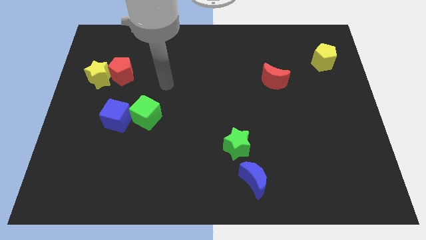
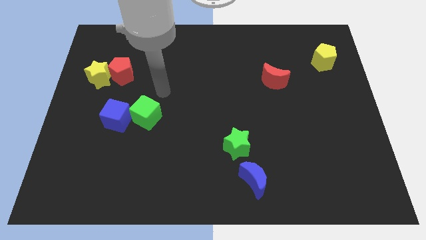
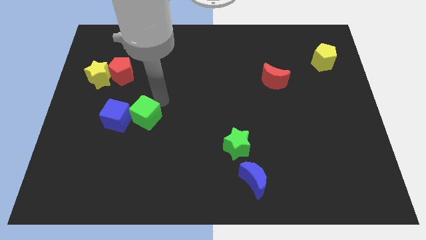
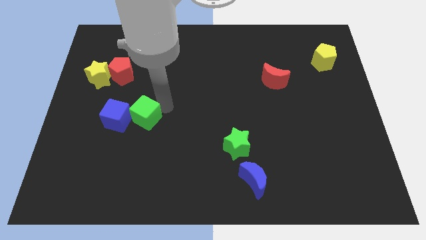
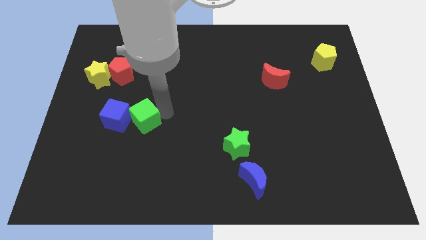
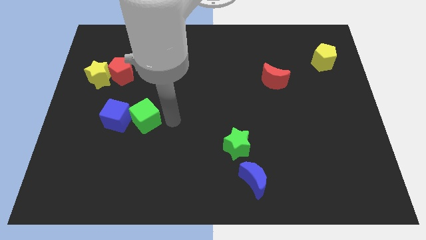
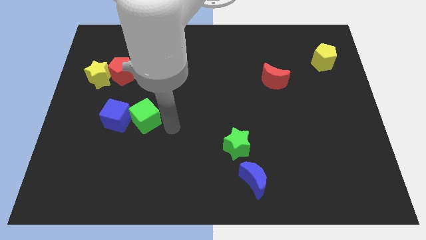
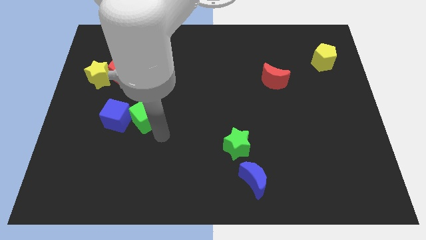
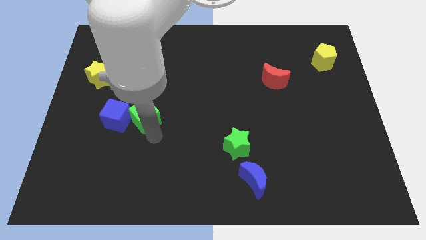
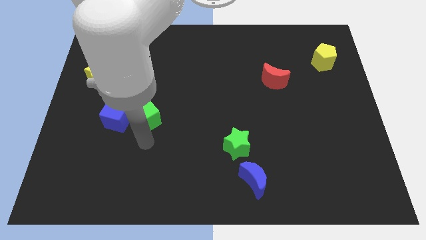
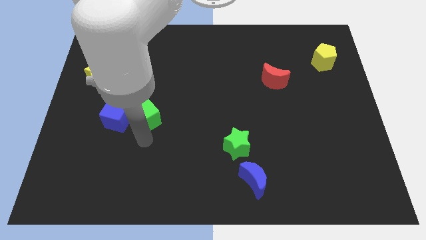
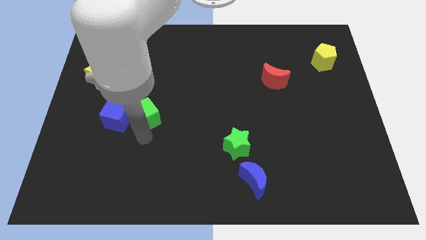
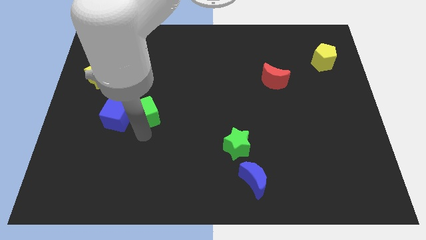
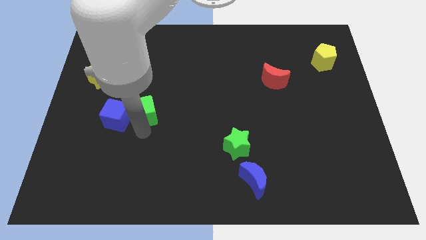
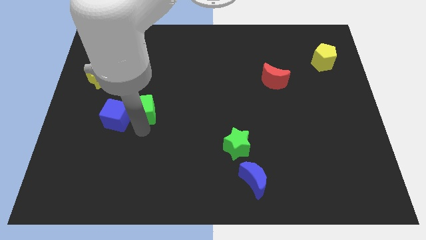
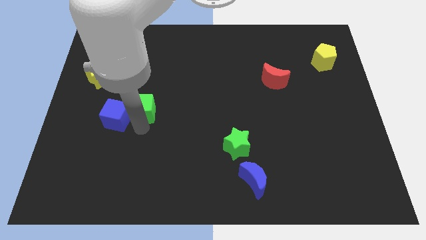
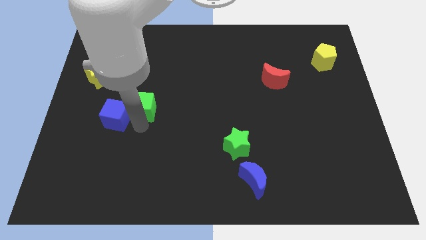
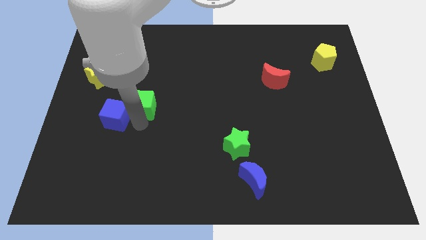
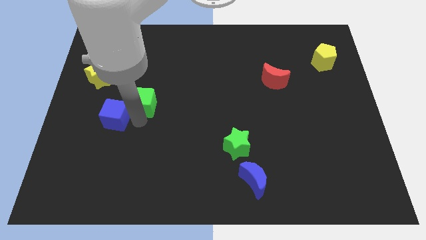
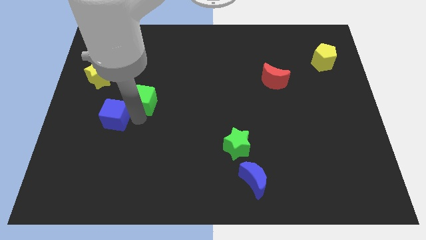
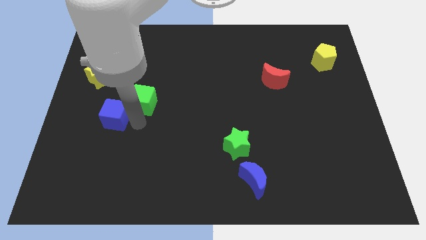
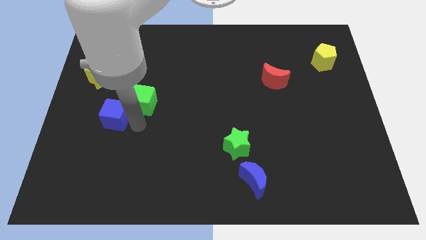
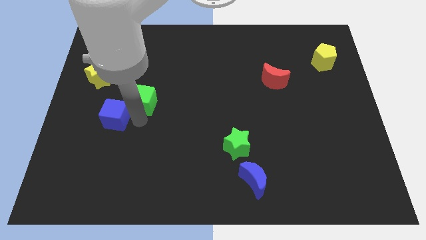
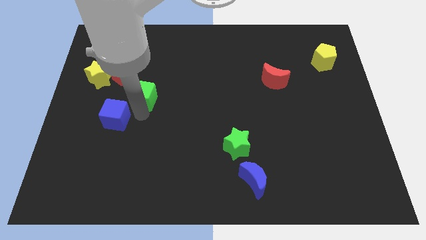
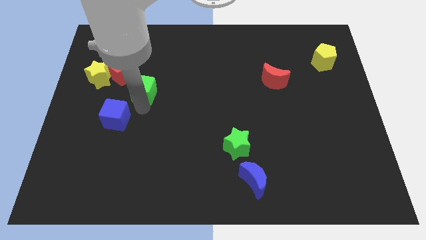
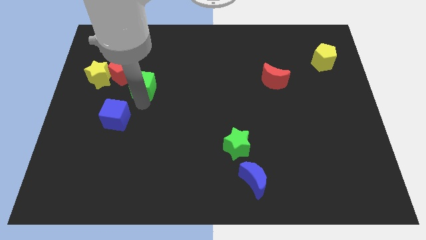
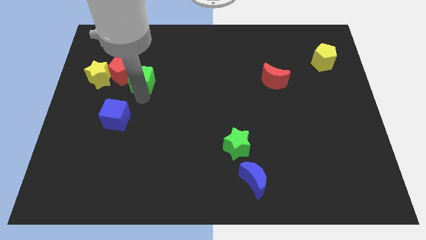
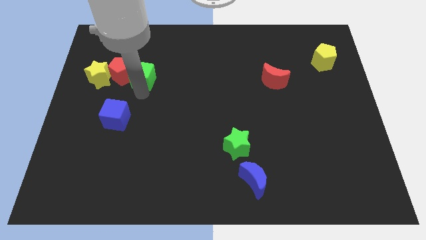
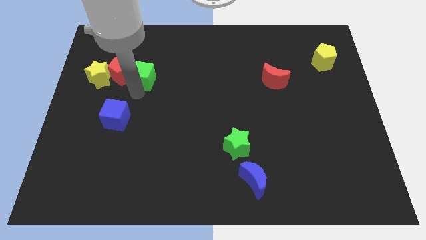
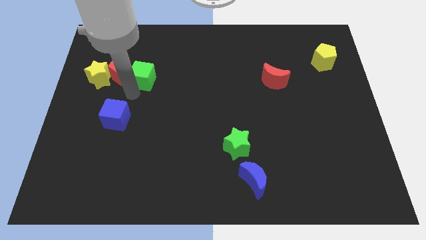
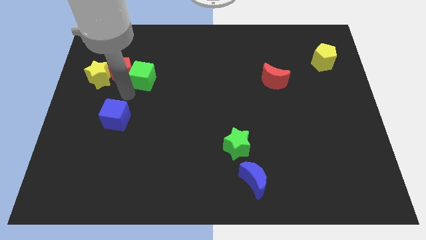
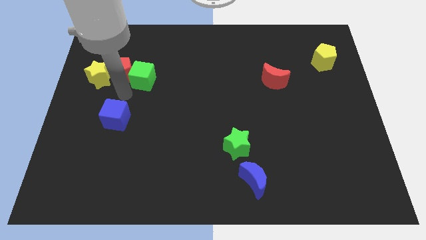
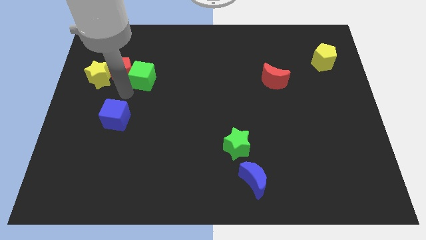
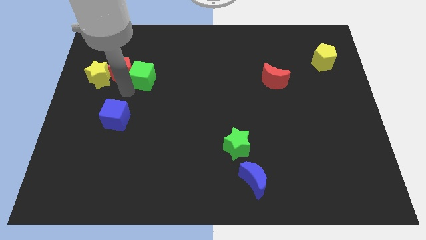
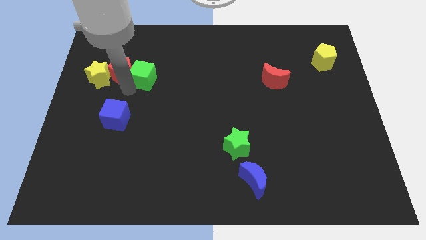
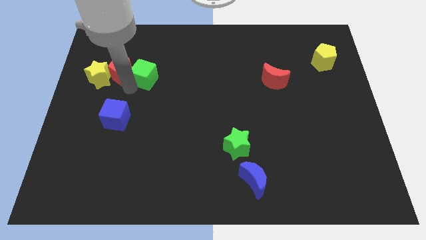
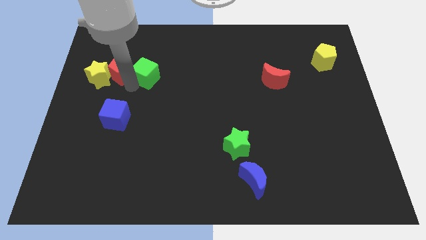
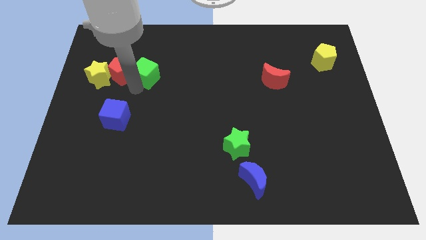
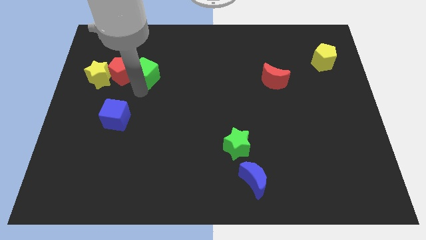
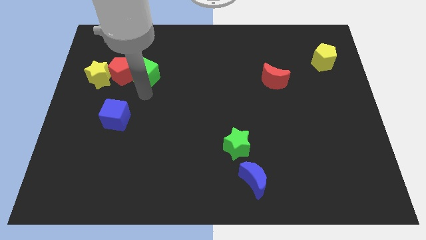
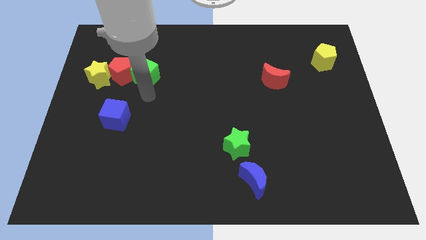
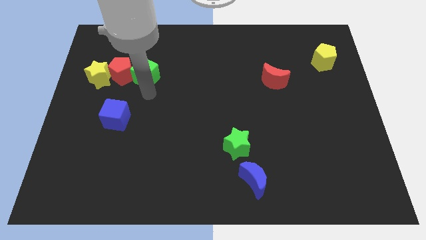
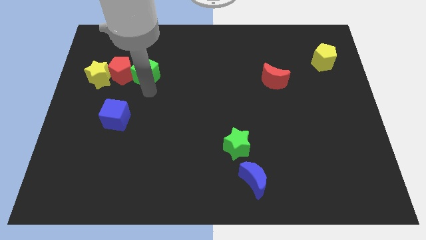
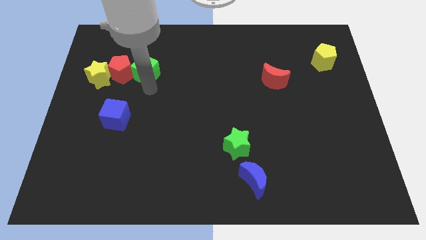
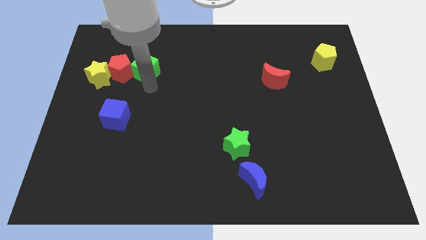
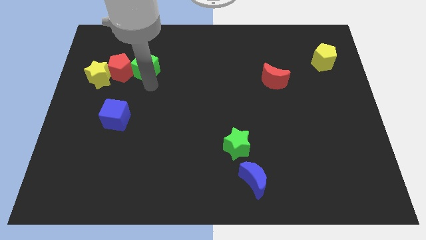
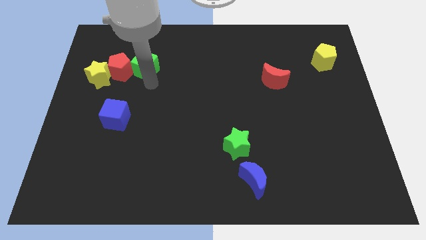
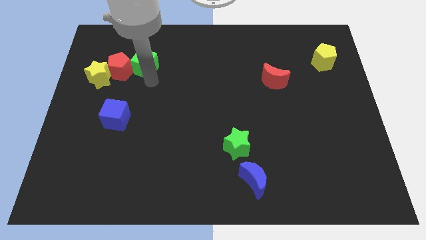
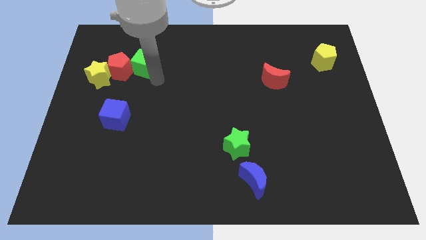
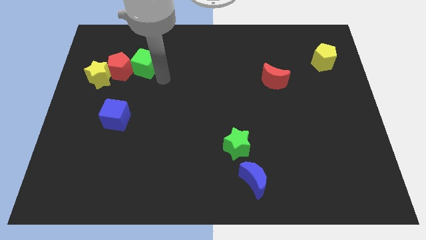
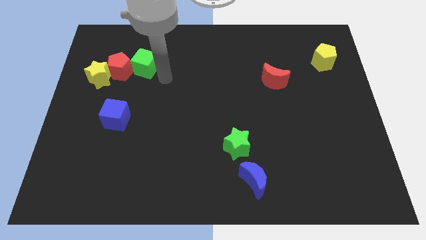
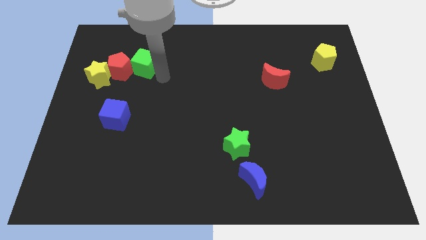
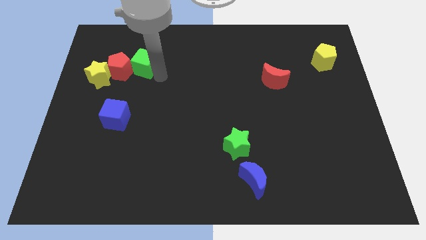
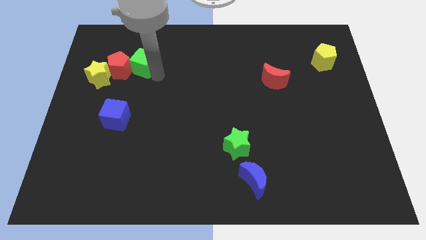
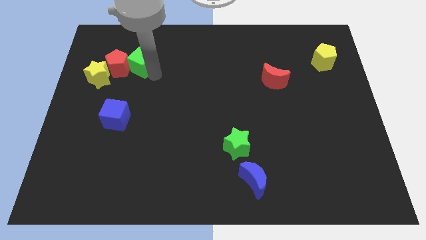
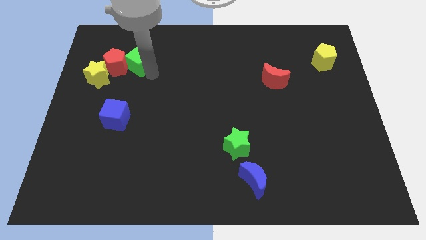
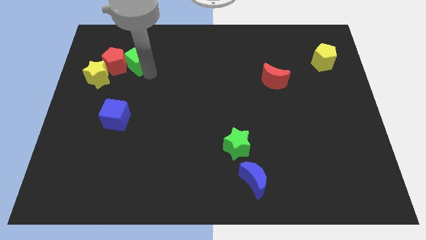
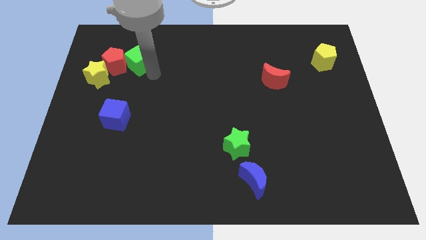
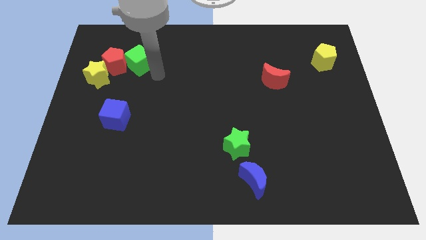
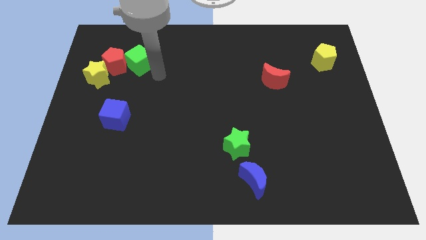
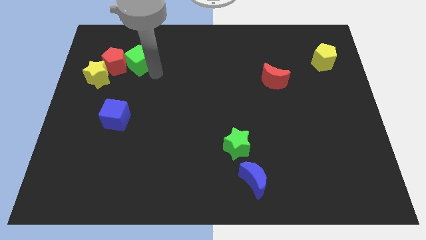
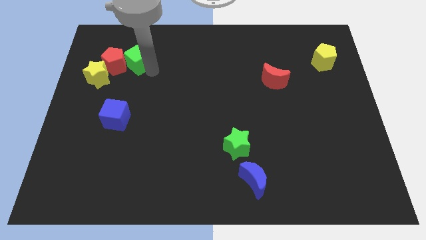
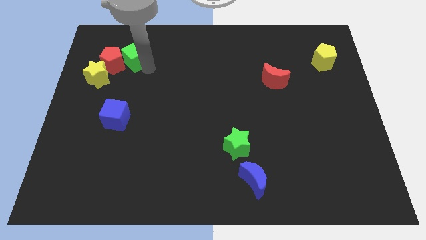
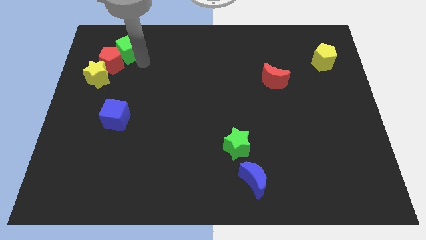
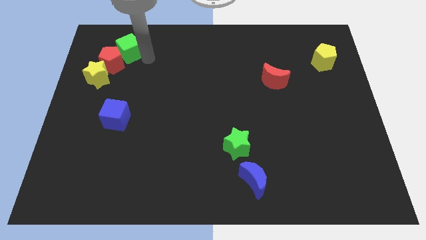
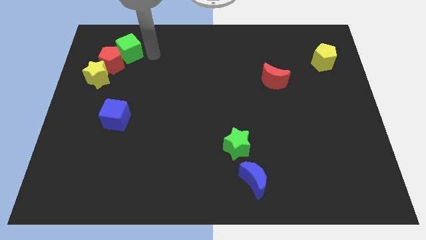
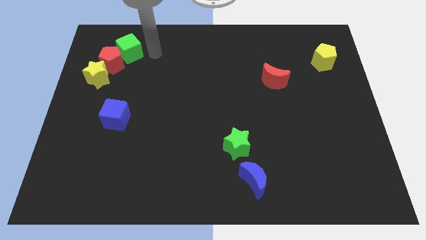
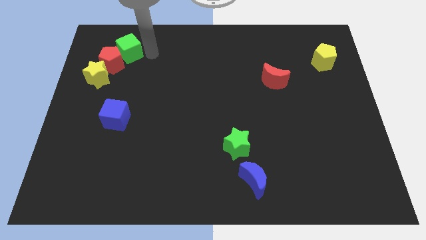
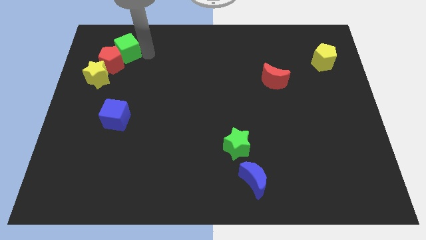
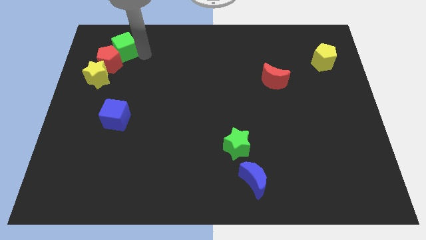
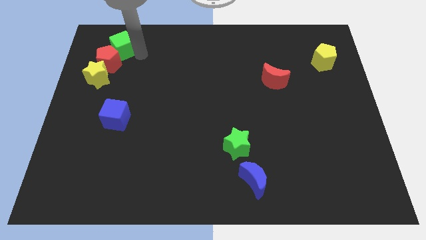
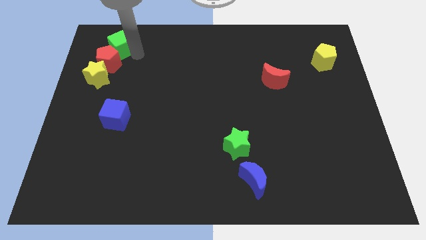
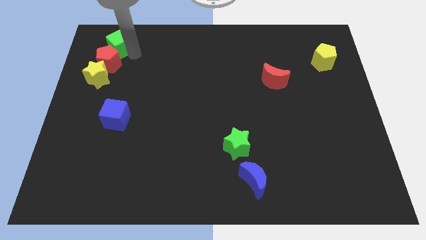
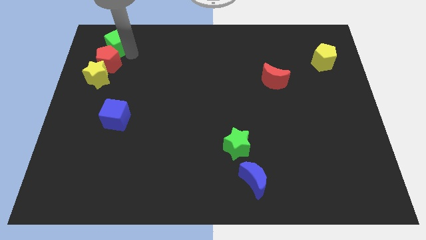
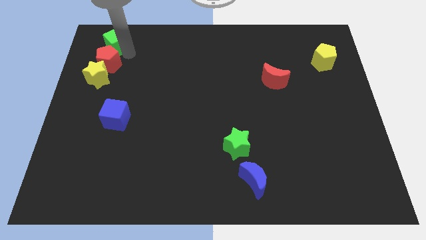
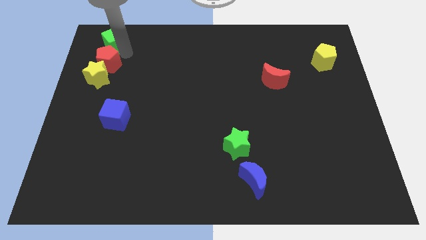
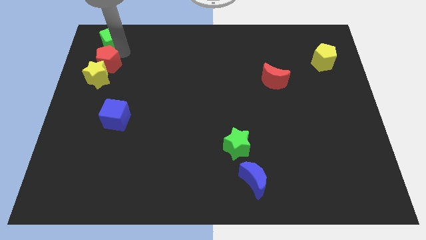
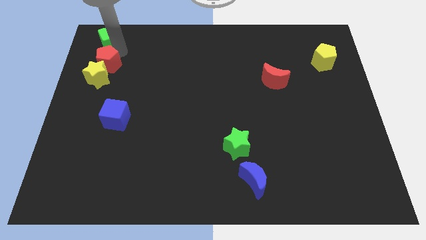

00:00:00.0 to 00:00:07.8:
move the green cube diagonally up and to the left of the red pentagon

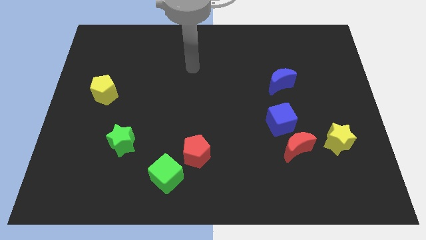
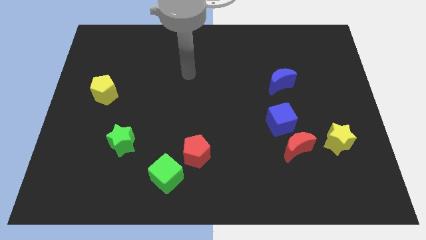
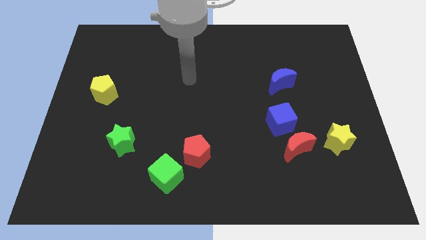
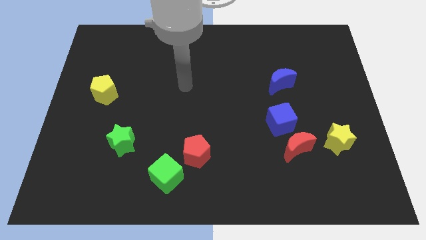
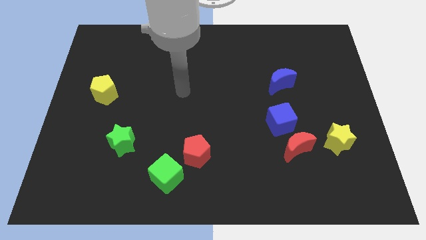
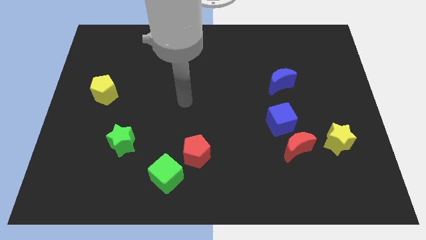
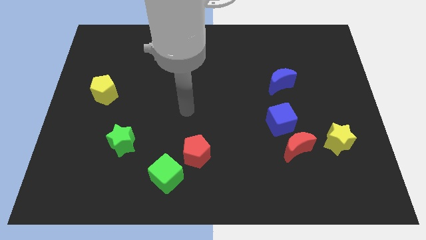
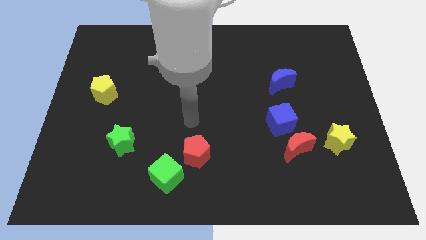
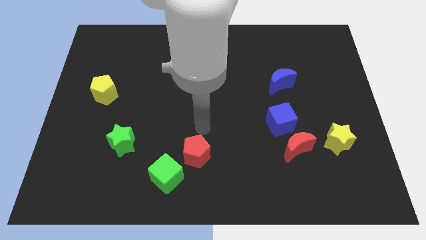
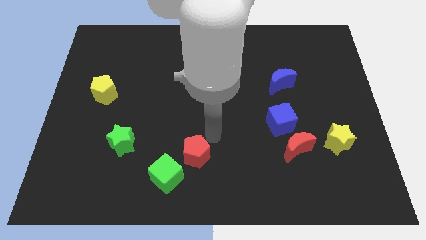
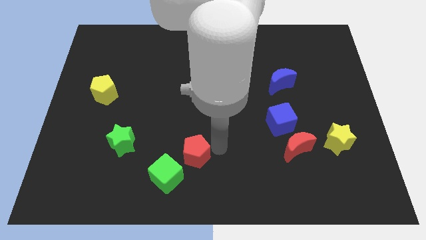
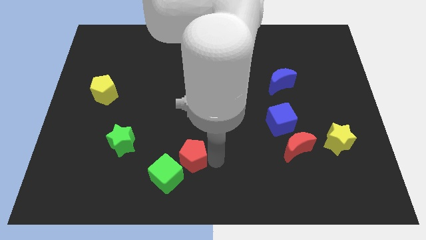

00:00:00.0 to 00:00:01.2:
slide the green cube to the left of the red pentagon
